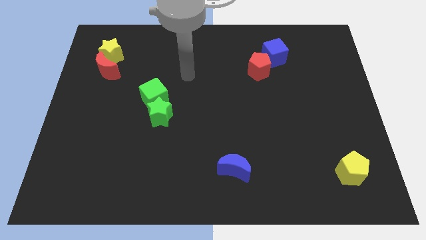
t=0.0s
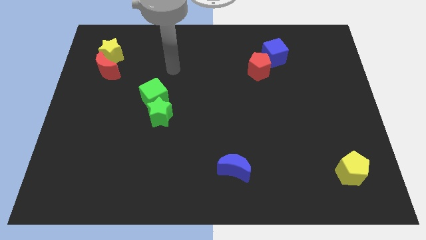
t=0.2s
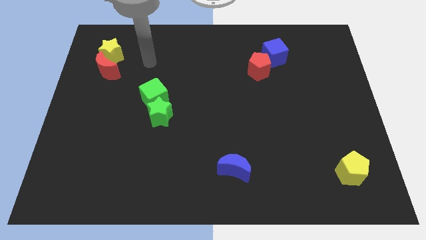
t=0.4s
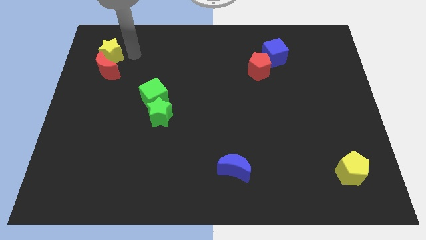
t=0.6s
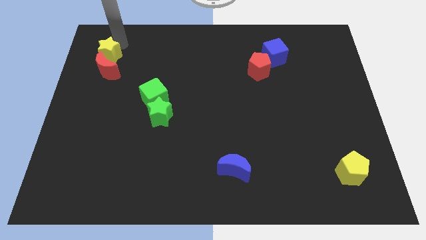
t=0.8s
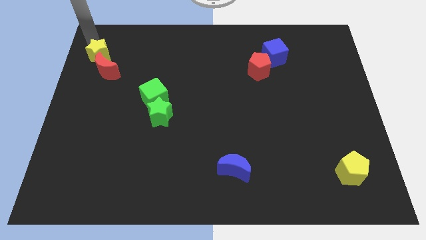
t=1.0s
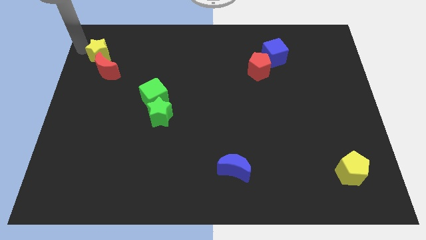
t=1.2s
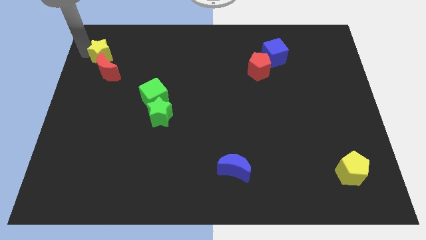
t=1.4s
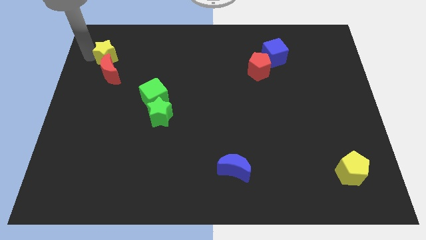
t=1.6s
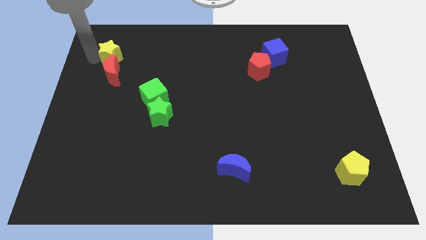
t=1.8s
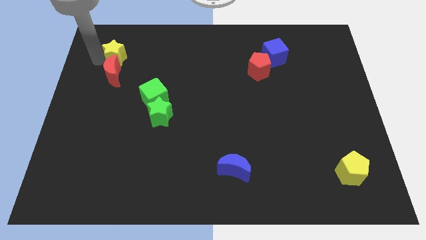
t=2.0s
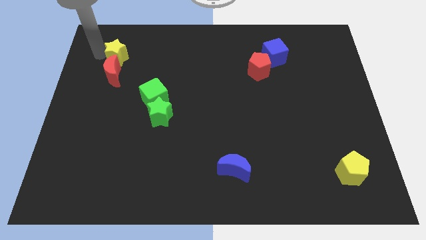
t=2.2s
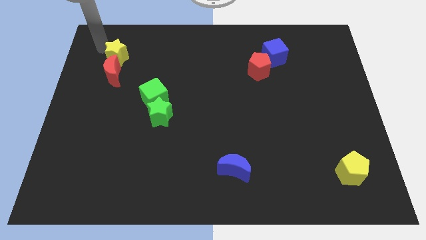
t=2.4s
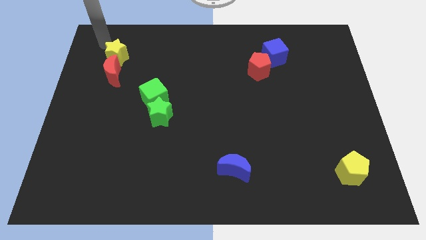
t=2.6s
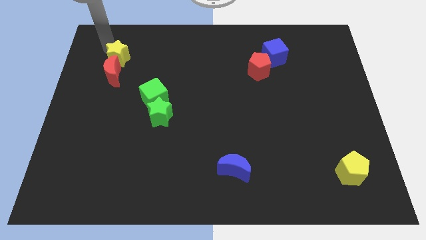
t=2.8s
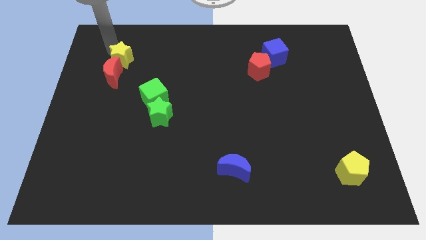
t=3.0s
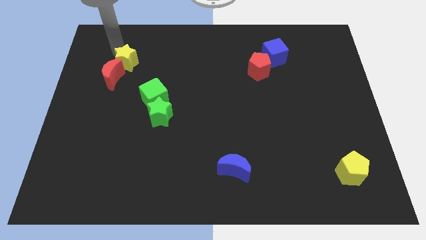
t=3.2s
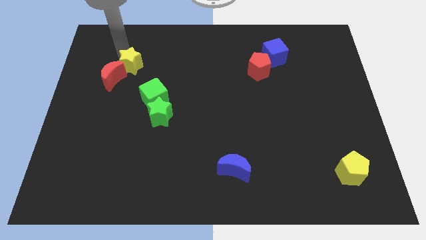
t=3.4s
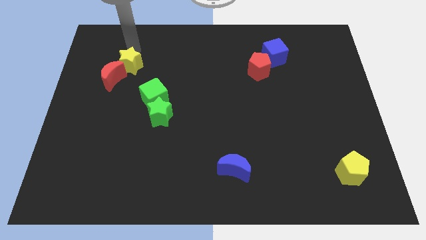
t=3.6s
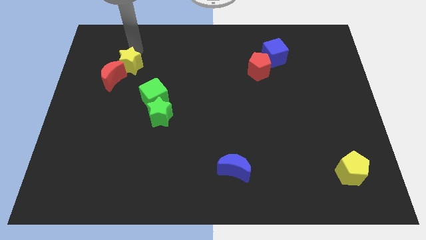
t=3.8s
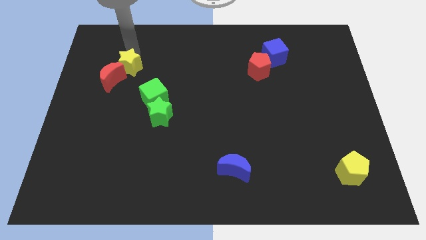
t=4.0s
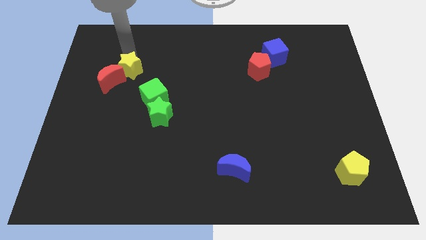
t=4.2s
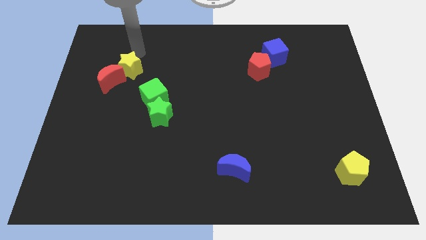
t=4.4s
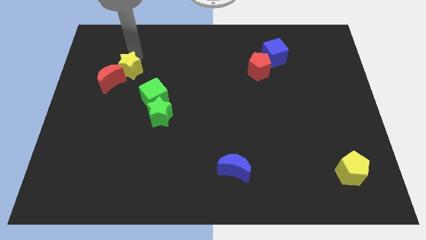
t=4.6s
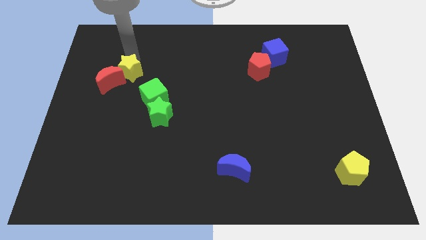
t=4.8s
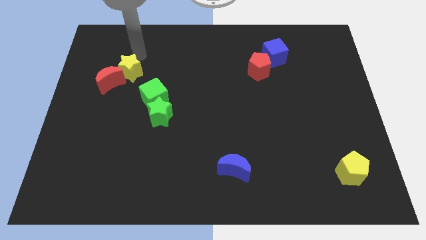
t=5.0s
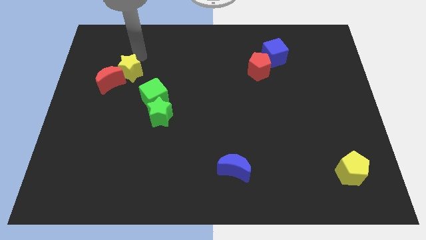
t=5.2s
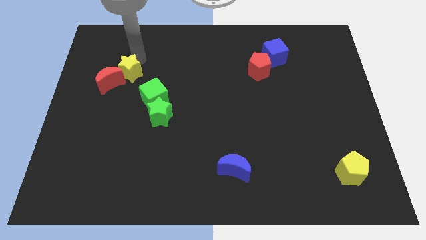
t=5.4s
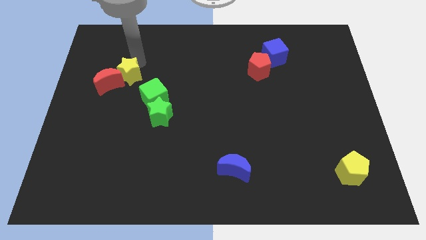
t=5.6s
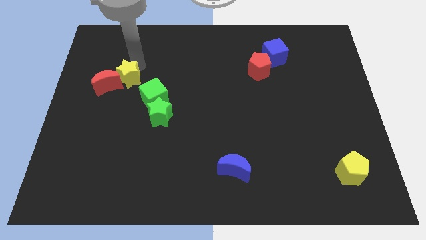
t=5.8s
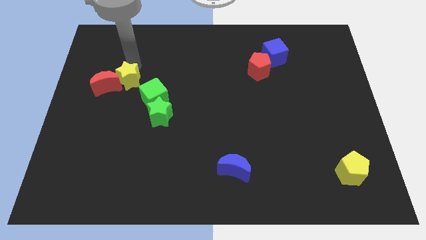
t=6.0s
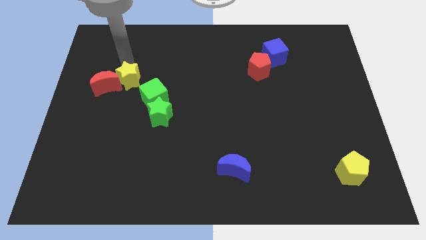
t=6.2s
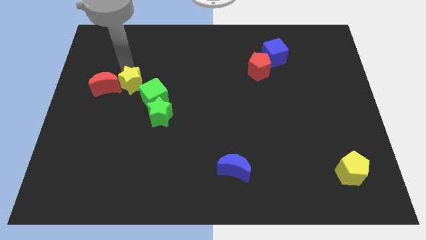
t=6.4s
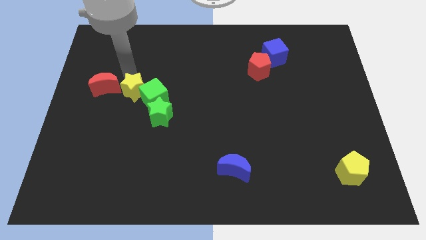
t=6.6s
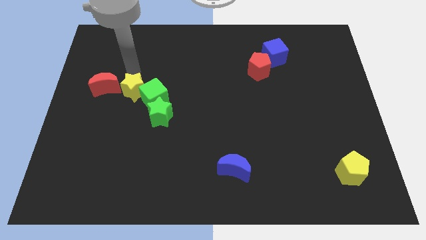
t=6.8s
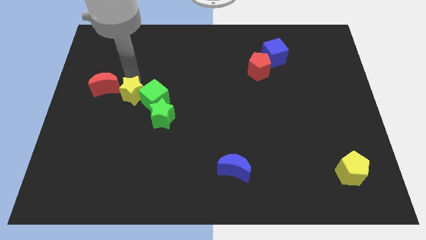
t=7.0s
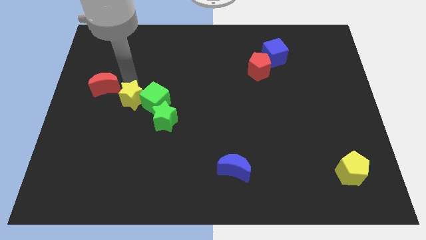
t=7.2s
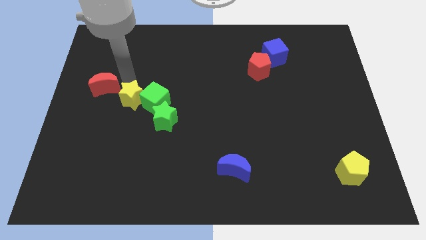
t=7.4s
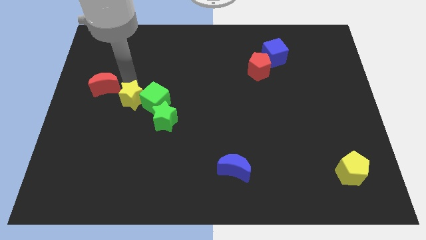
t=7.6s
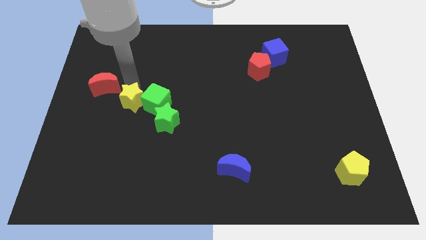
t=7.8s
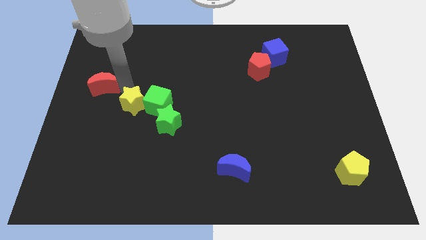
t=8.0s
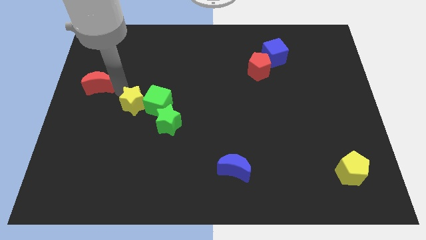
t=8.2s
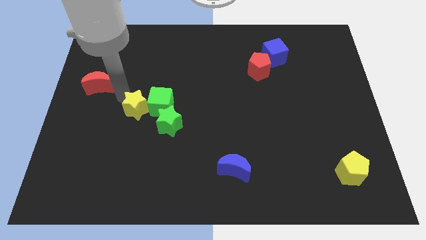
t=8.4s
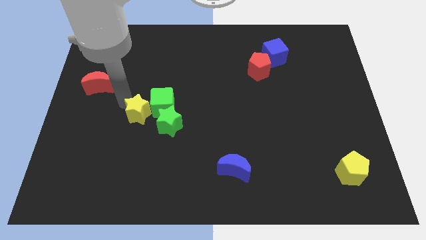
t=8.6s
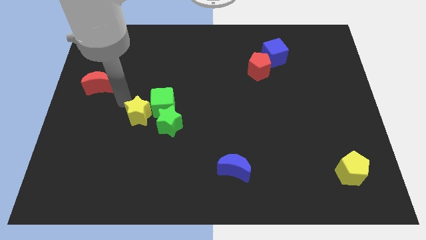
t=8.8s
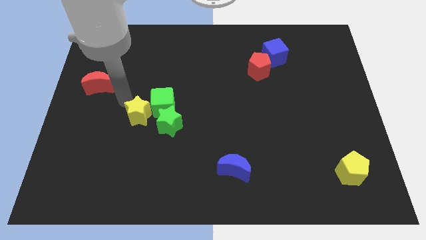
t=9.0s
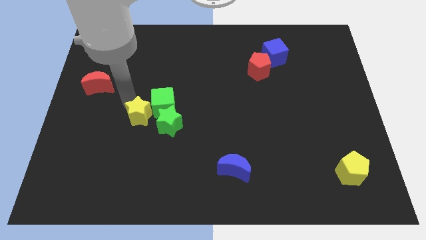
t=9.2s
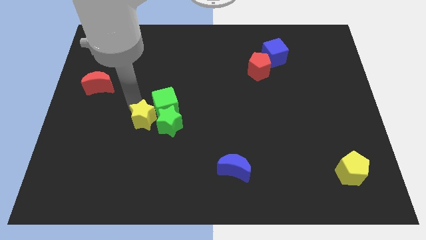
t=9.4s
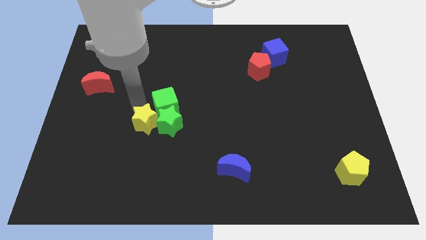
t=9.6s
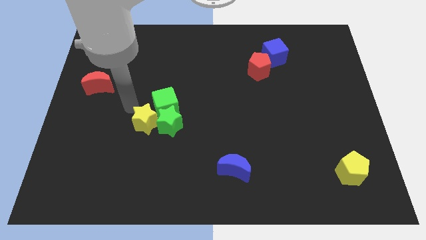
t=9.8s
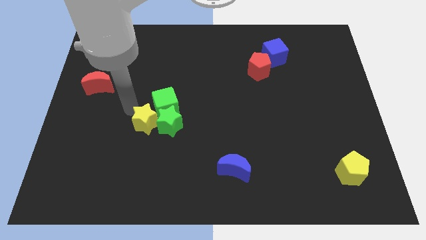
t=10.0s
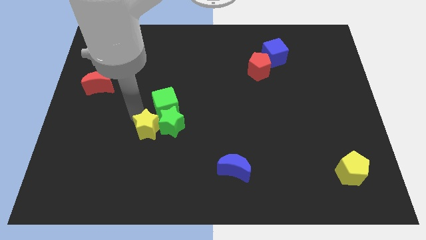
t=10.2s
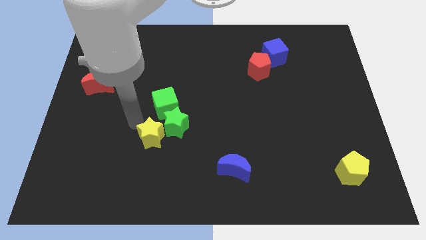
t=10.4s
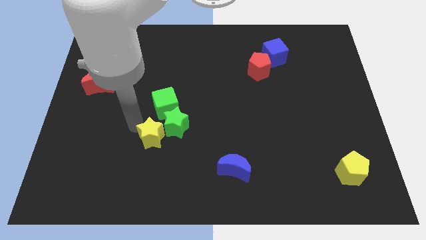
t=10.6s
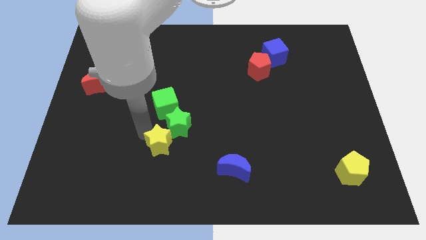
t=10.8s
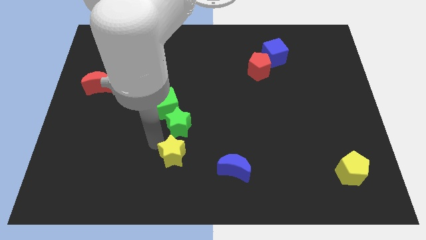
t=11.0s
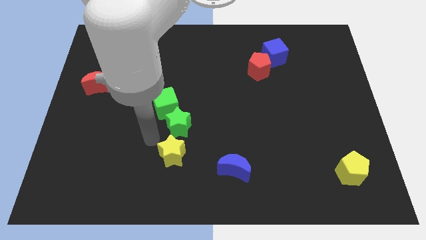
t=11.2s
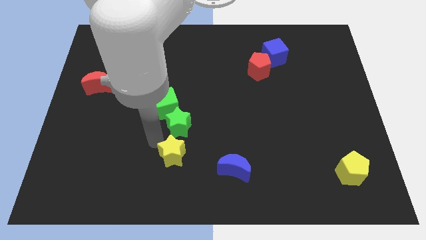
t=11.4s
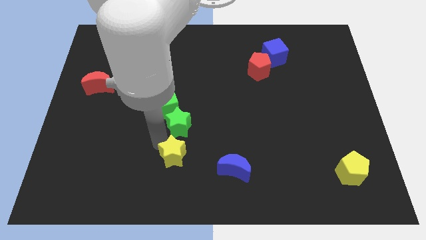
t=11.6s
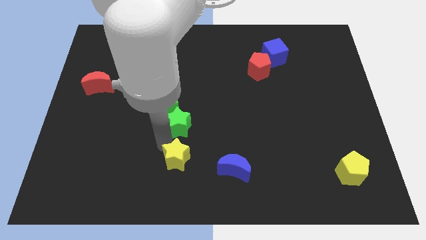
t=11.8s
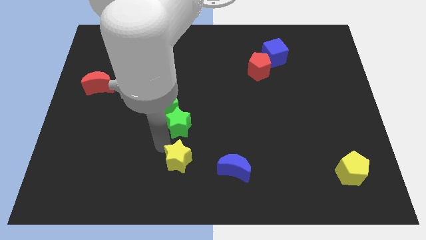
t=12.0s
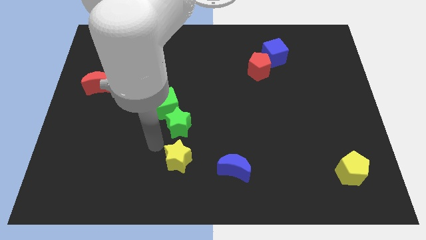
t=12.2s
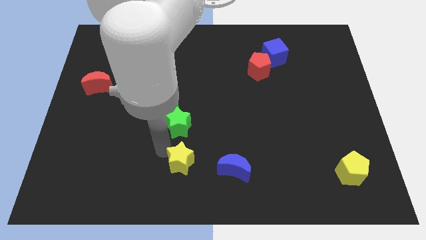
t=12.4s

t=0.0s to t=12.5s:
push the yellow star to the bottom side

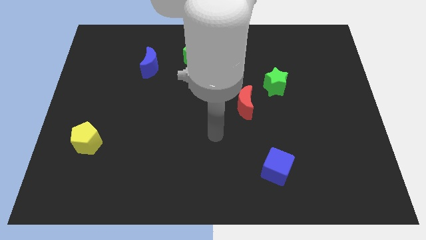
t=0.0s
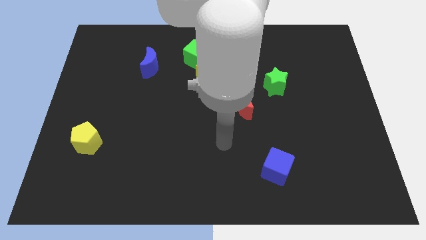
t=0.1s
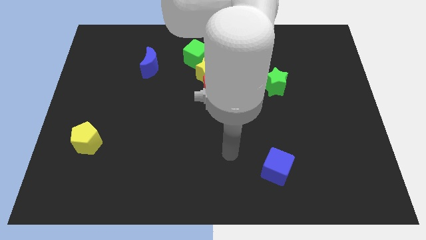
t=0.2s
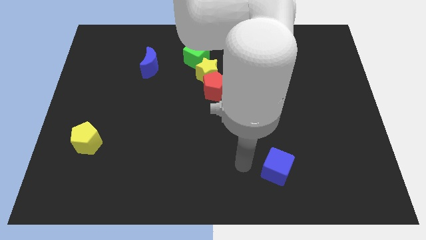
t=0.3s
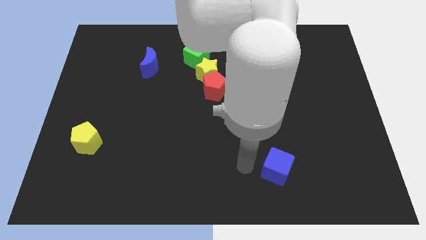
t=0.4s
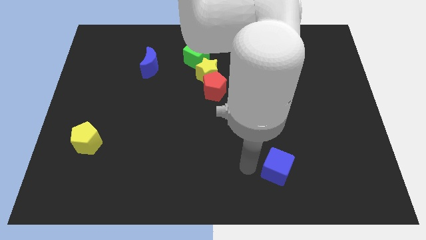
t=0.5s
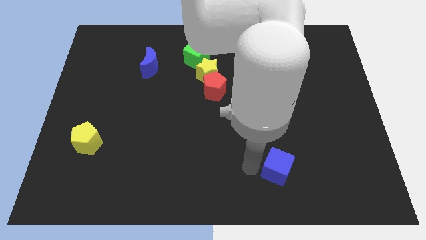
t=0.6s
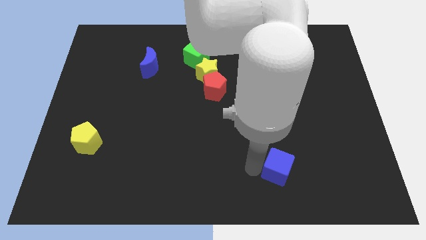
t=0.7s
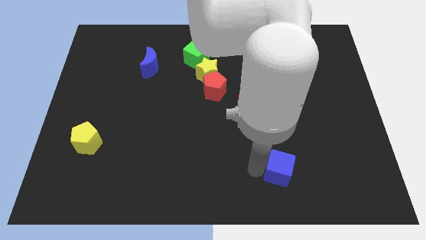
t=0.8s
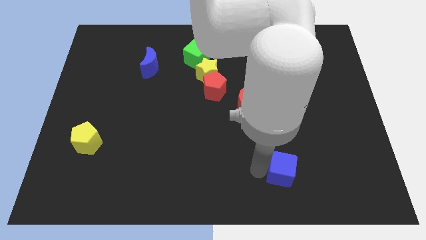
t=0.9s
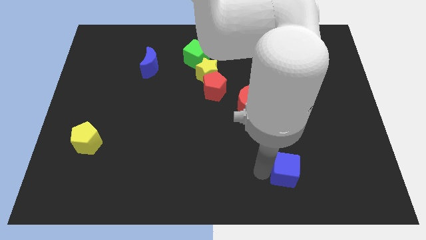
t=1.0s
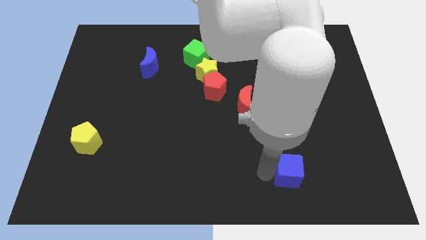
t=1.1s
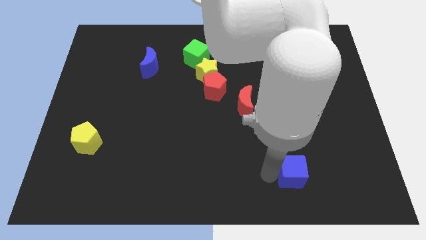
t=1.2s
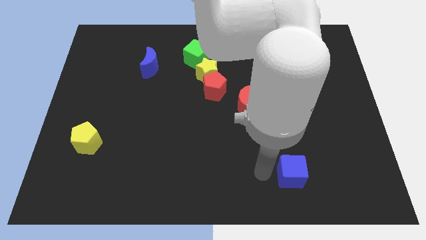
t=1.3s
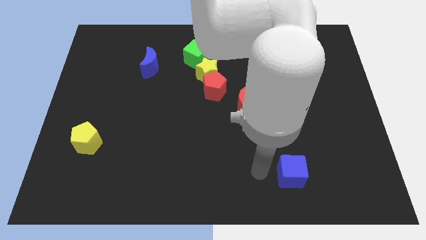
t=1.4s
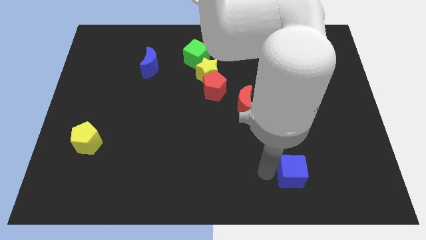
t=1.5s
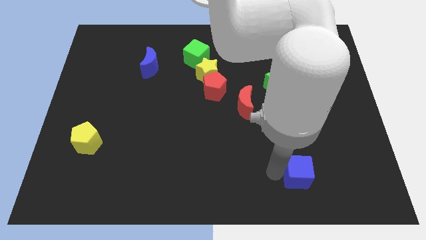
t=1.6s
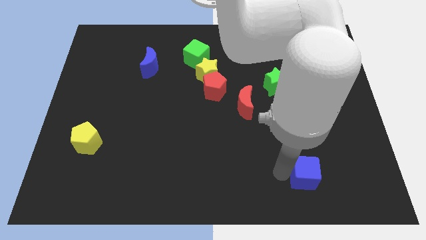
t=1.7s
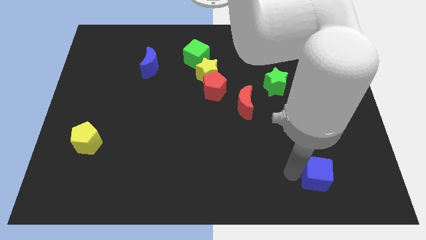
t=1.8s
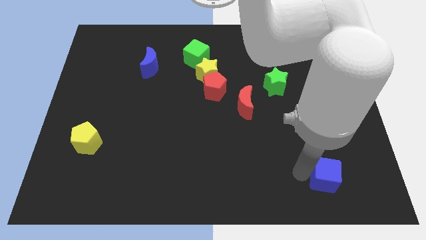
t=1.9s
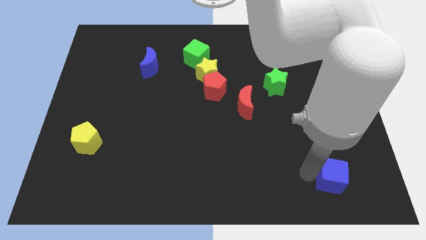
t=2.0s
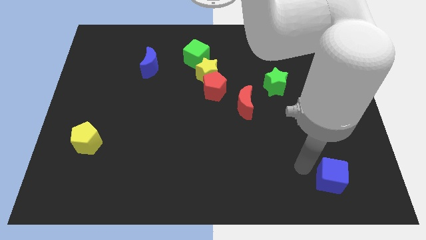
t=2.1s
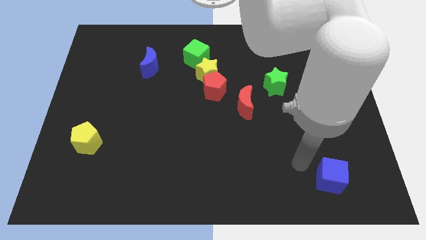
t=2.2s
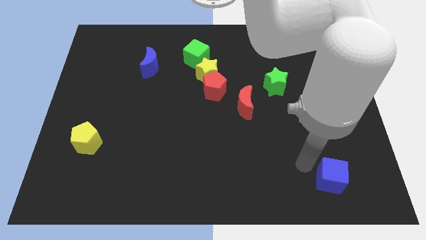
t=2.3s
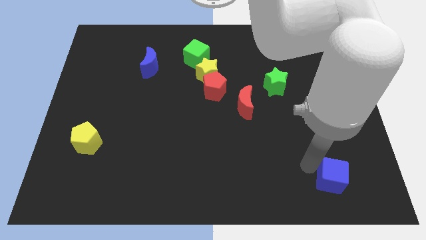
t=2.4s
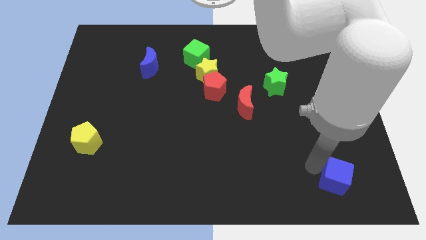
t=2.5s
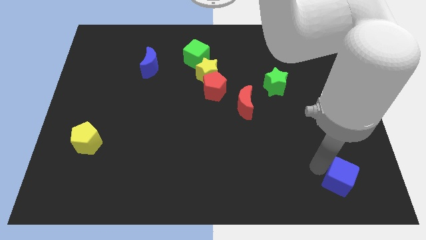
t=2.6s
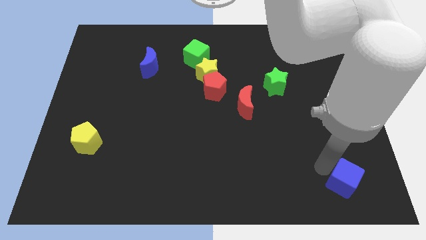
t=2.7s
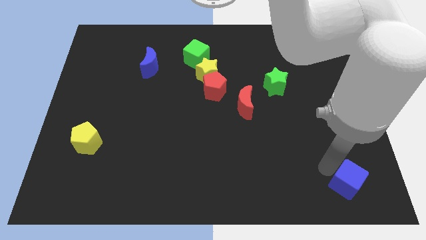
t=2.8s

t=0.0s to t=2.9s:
slide the blue cube to the bottom right
